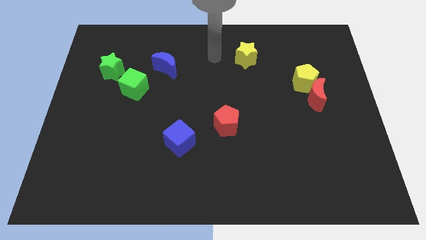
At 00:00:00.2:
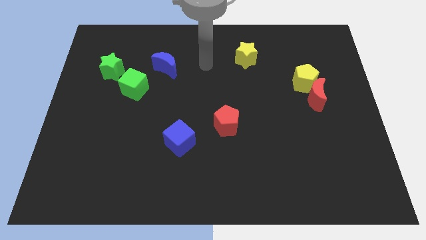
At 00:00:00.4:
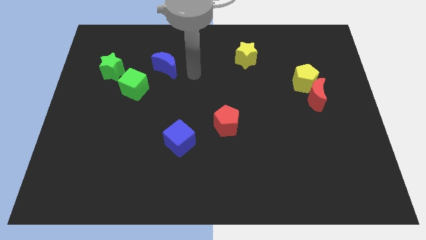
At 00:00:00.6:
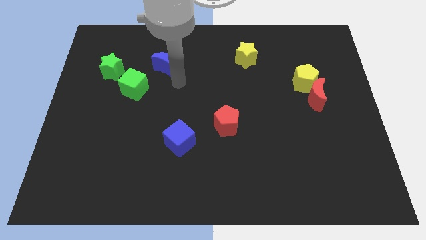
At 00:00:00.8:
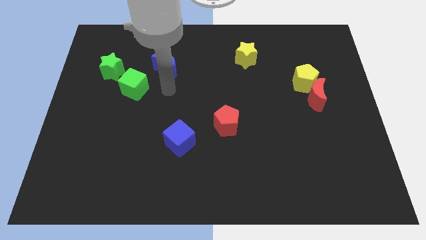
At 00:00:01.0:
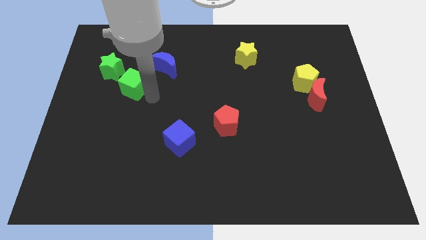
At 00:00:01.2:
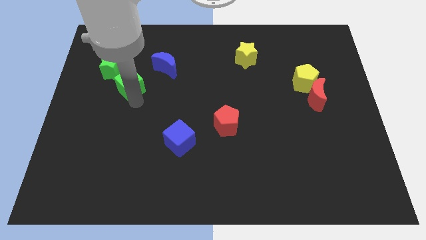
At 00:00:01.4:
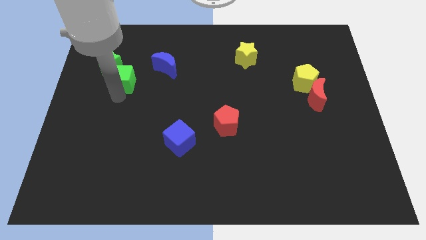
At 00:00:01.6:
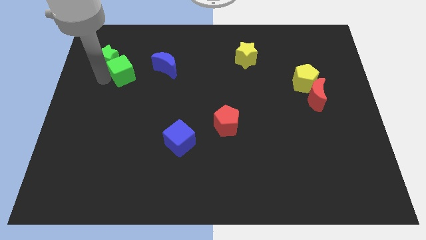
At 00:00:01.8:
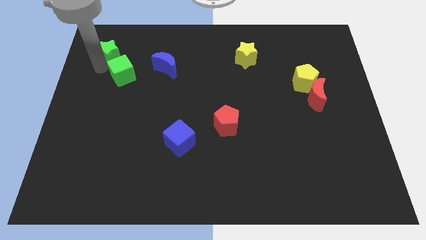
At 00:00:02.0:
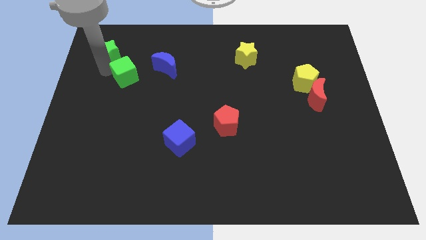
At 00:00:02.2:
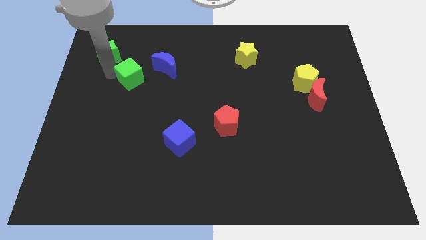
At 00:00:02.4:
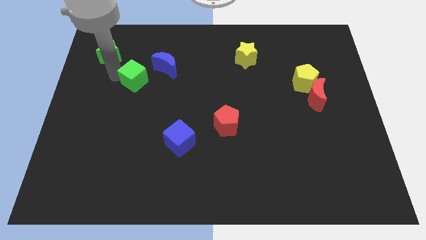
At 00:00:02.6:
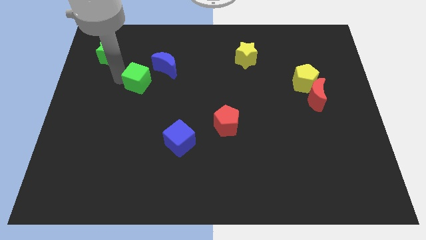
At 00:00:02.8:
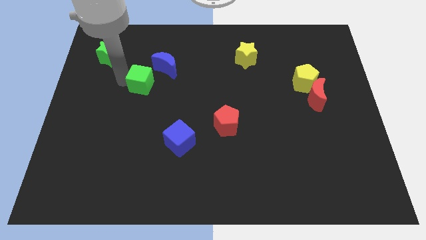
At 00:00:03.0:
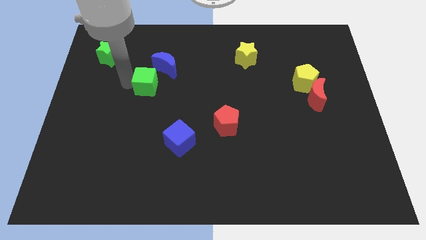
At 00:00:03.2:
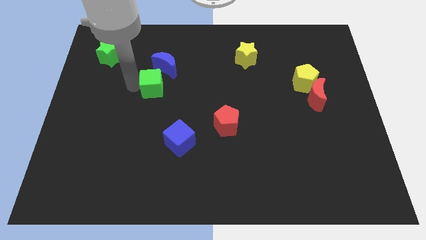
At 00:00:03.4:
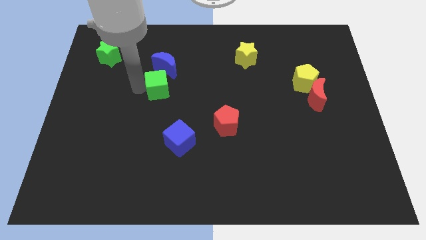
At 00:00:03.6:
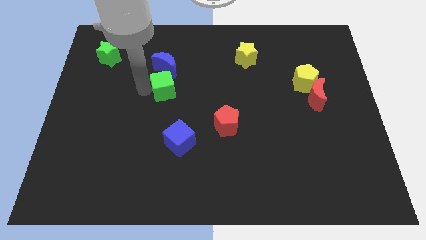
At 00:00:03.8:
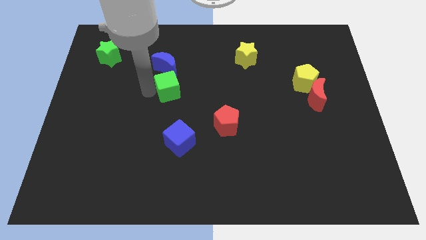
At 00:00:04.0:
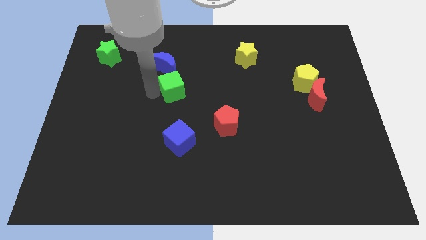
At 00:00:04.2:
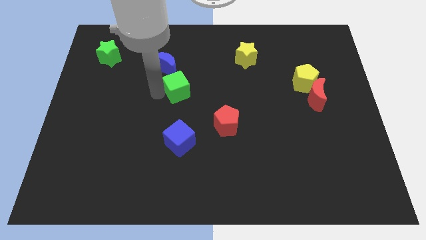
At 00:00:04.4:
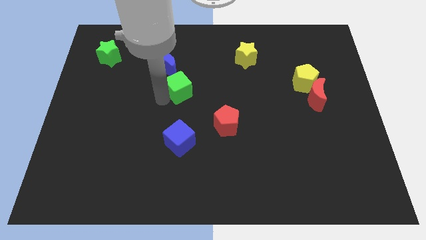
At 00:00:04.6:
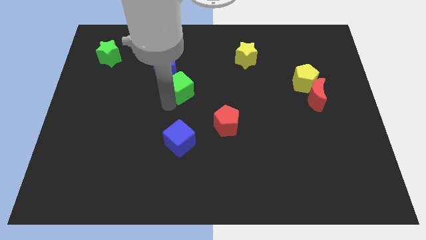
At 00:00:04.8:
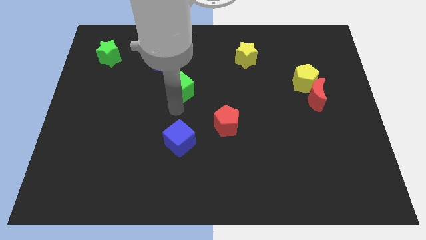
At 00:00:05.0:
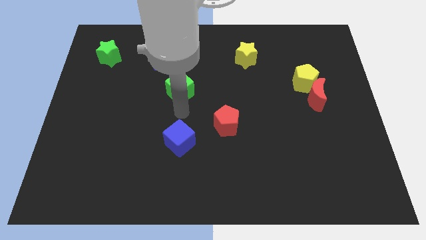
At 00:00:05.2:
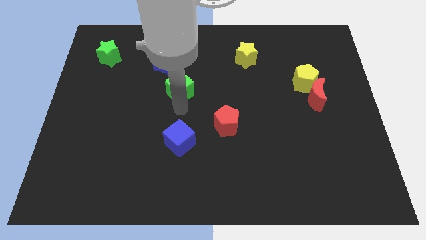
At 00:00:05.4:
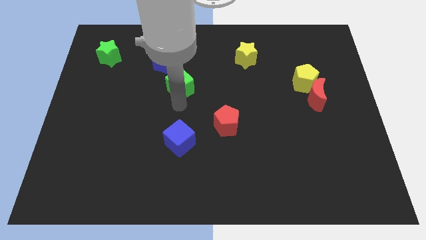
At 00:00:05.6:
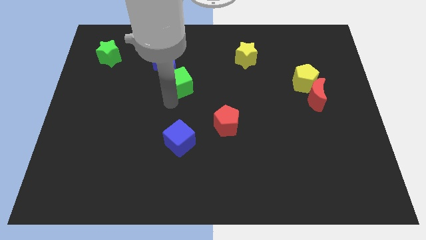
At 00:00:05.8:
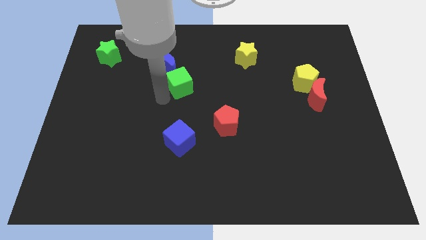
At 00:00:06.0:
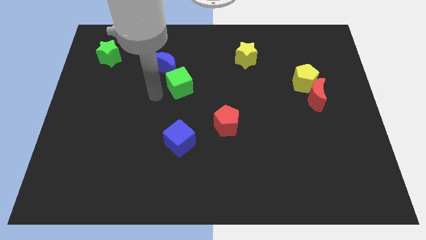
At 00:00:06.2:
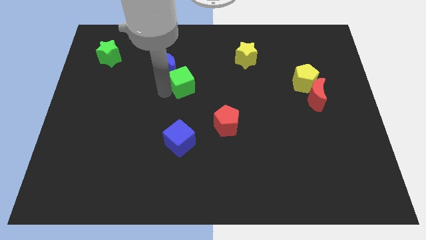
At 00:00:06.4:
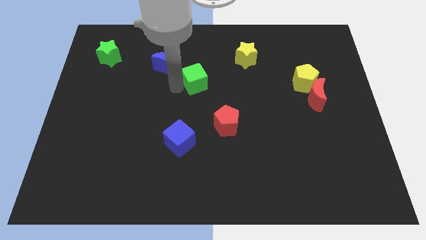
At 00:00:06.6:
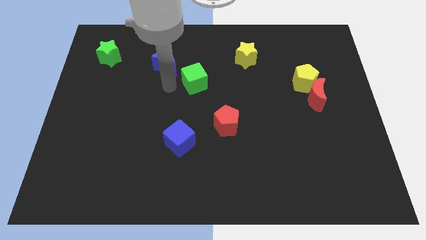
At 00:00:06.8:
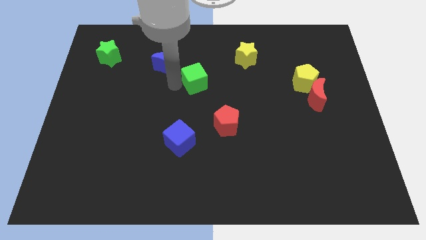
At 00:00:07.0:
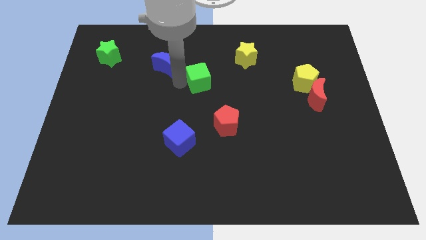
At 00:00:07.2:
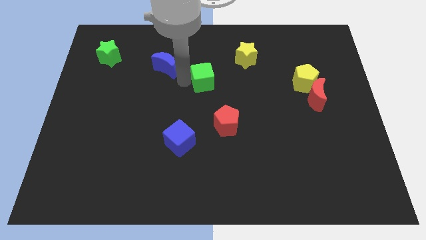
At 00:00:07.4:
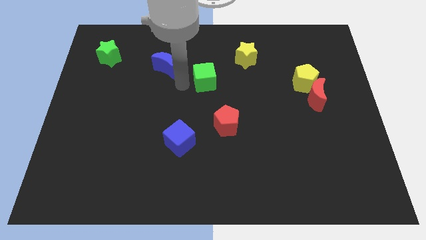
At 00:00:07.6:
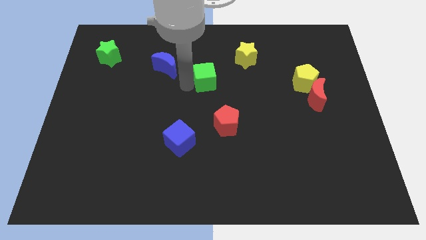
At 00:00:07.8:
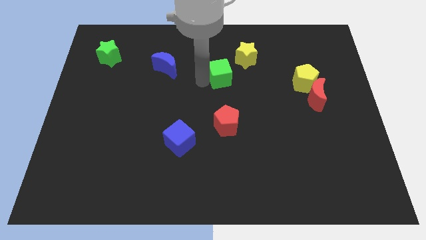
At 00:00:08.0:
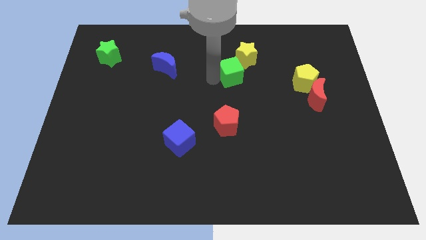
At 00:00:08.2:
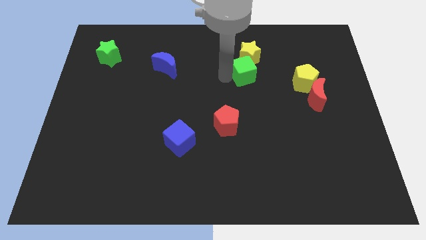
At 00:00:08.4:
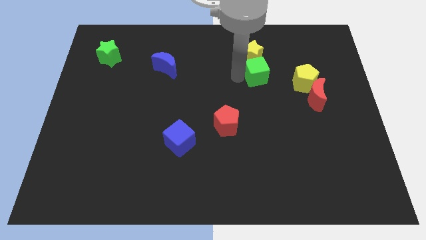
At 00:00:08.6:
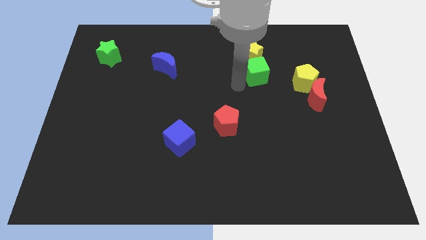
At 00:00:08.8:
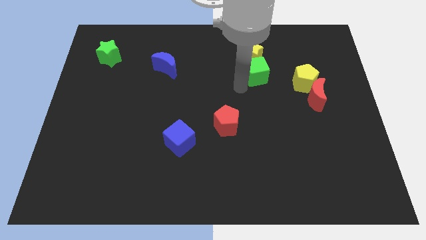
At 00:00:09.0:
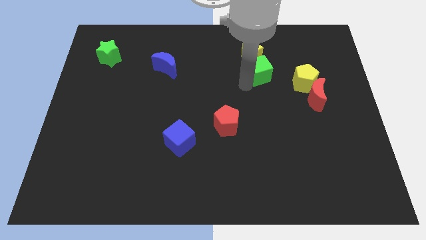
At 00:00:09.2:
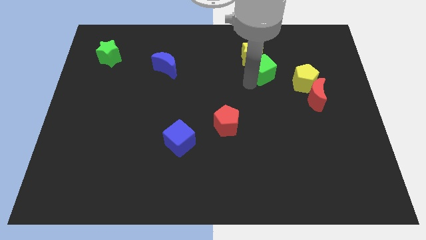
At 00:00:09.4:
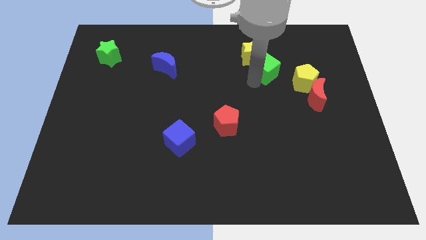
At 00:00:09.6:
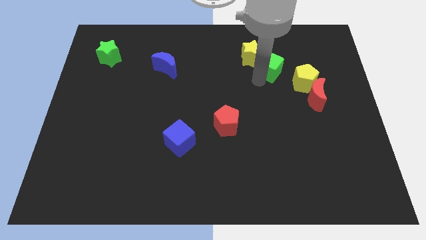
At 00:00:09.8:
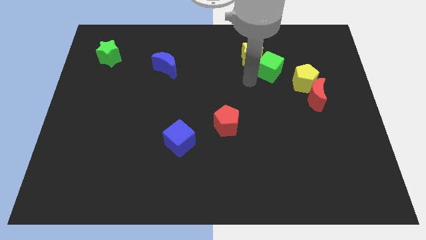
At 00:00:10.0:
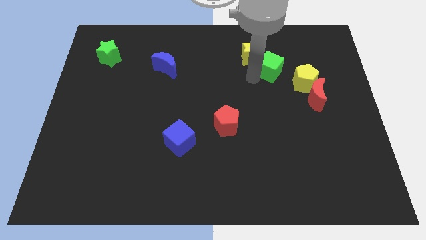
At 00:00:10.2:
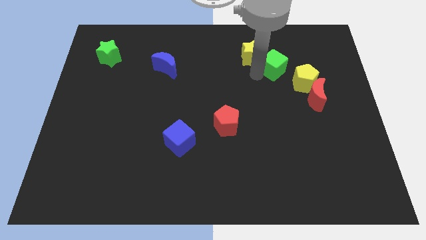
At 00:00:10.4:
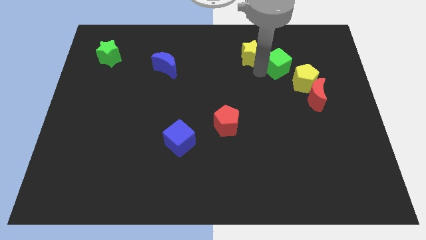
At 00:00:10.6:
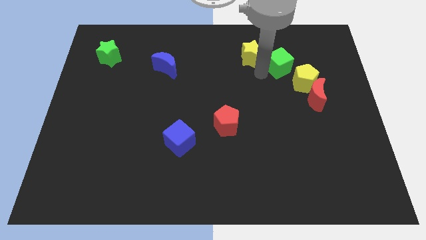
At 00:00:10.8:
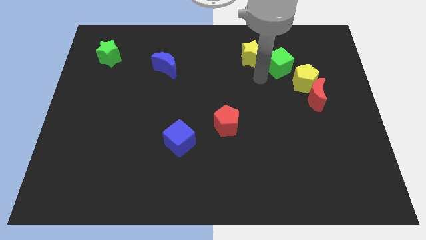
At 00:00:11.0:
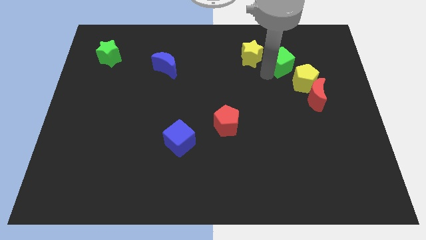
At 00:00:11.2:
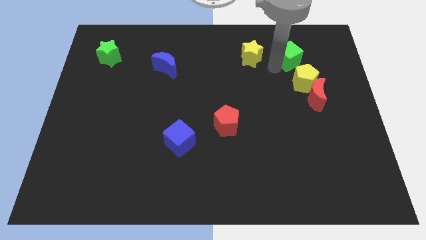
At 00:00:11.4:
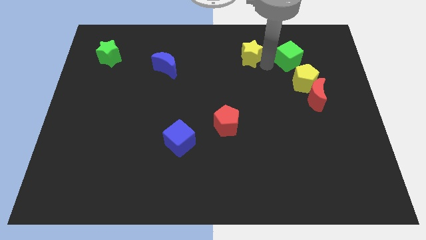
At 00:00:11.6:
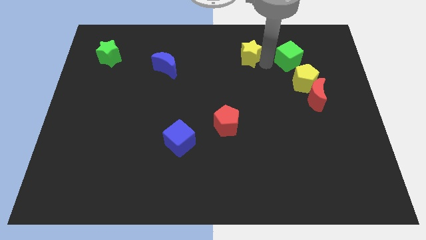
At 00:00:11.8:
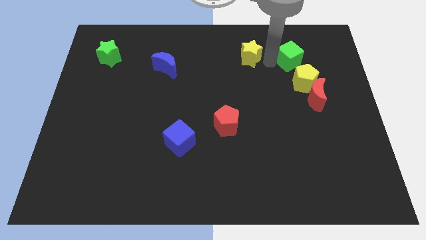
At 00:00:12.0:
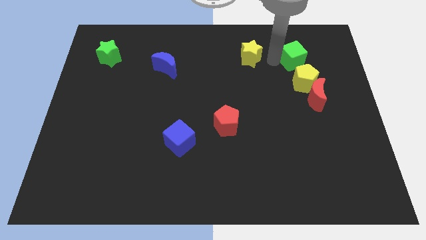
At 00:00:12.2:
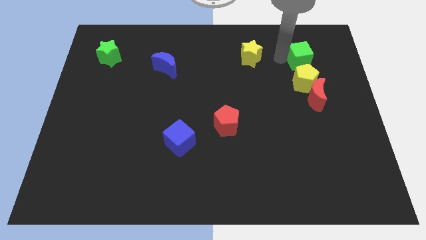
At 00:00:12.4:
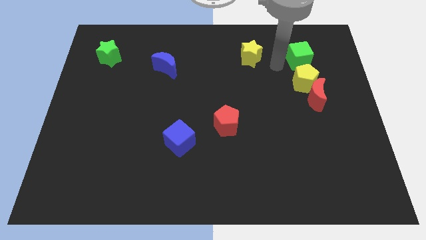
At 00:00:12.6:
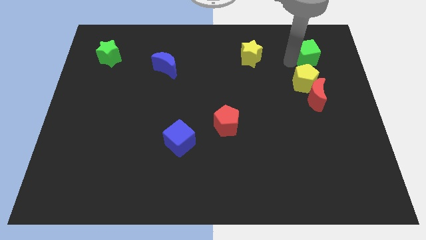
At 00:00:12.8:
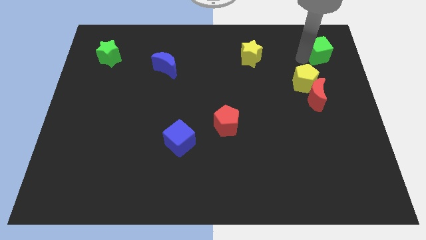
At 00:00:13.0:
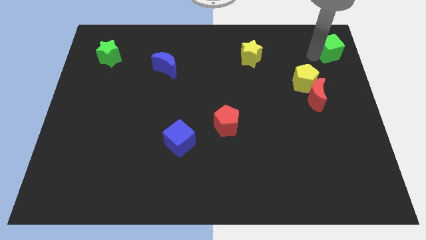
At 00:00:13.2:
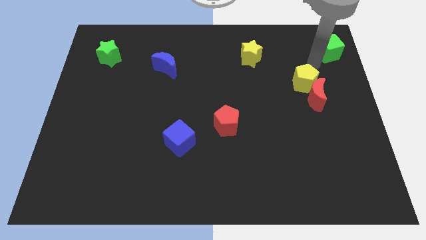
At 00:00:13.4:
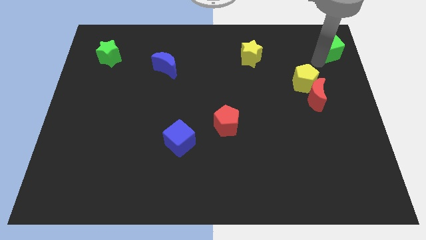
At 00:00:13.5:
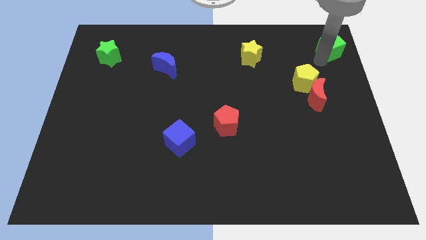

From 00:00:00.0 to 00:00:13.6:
push the green cube to the top right corner
